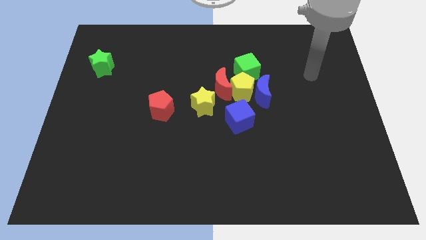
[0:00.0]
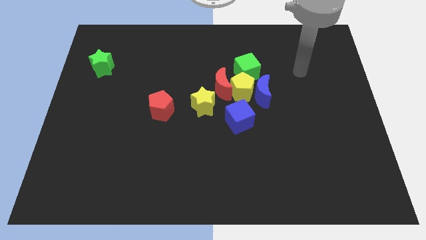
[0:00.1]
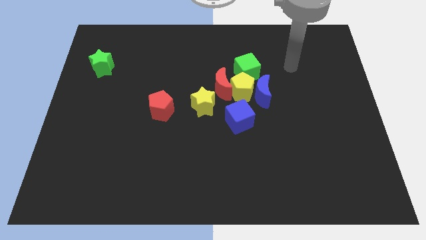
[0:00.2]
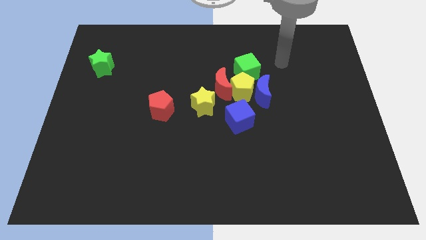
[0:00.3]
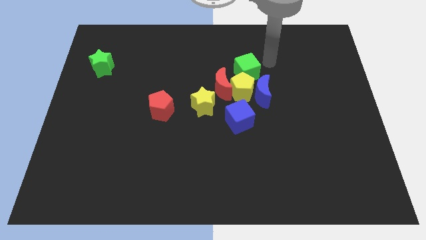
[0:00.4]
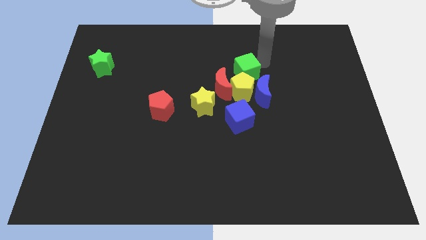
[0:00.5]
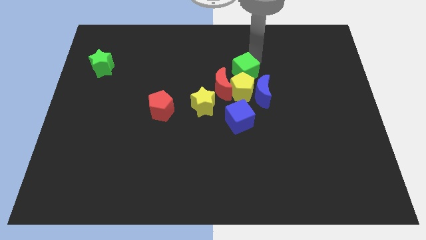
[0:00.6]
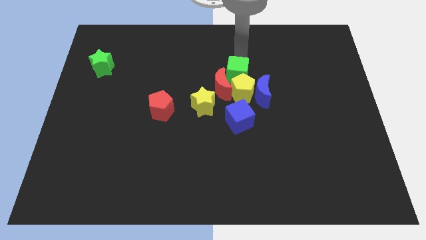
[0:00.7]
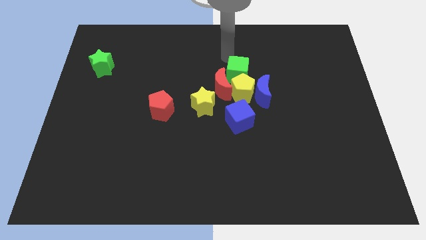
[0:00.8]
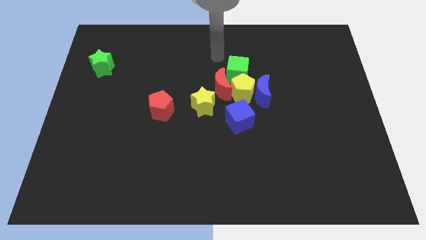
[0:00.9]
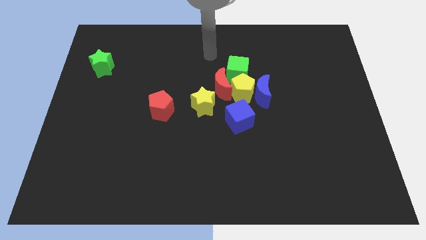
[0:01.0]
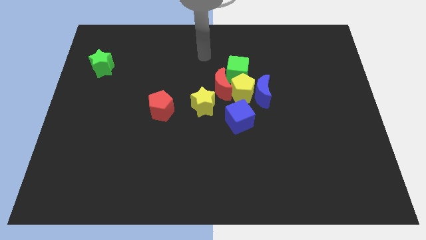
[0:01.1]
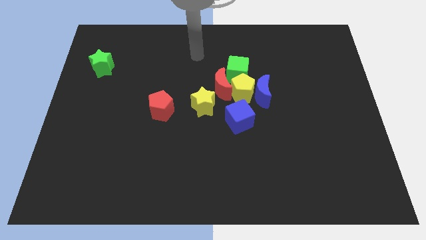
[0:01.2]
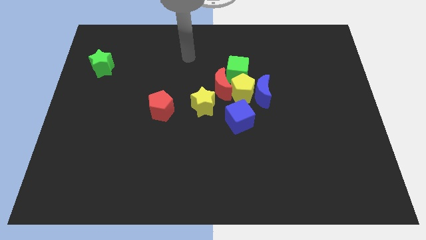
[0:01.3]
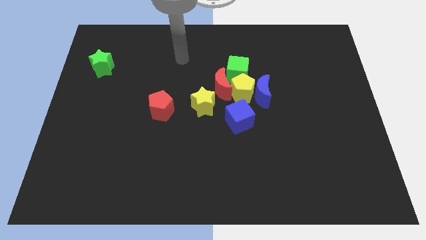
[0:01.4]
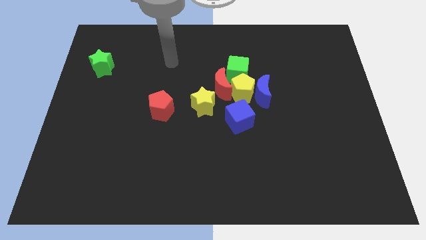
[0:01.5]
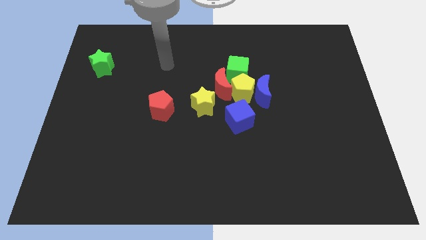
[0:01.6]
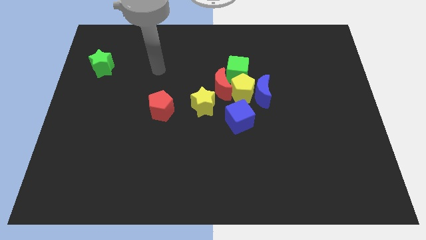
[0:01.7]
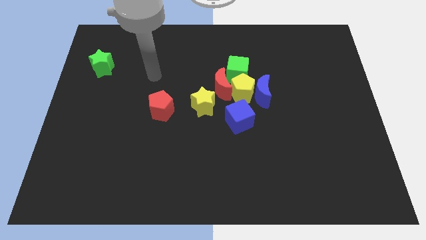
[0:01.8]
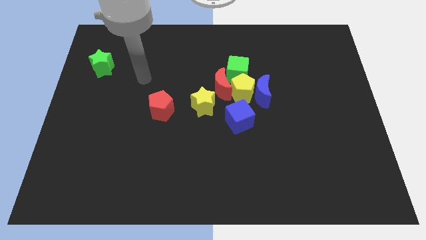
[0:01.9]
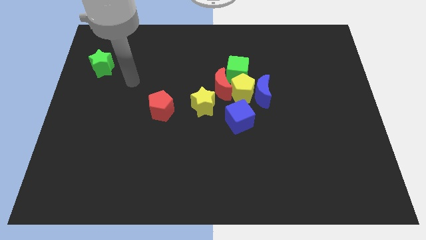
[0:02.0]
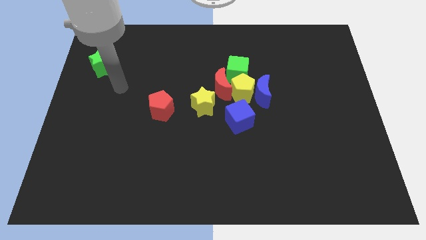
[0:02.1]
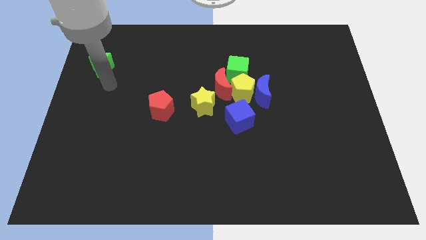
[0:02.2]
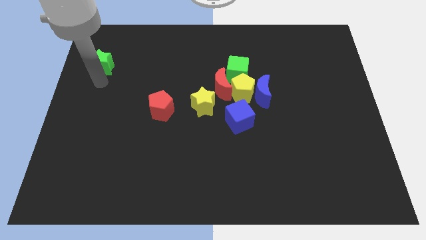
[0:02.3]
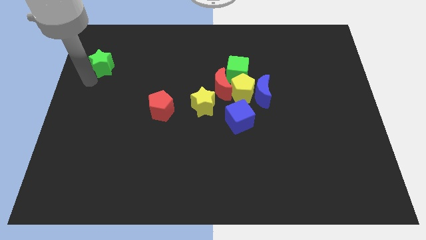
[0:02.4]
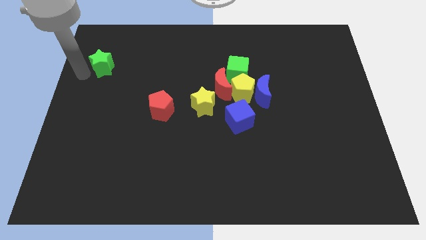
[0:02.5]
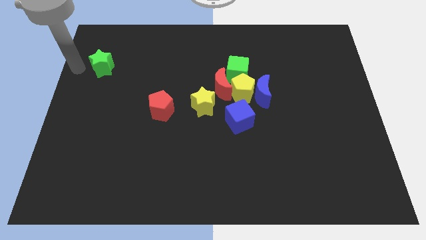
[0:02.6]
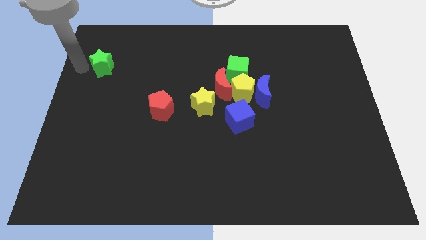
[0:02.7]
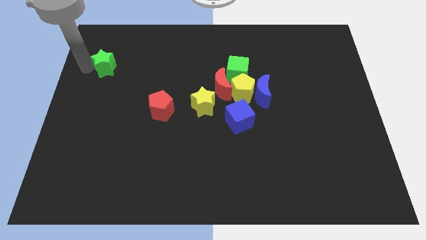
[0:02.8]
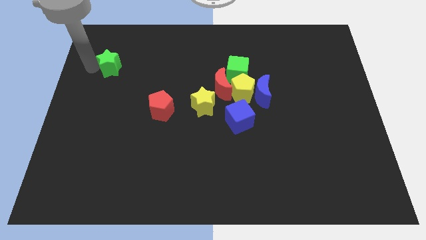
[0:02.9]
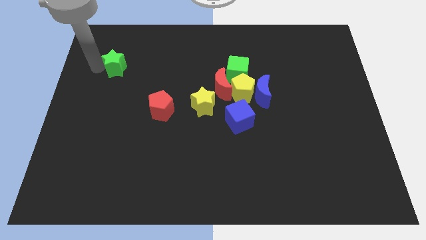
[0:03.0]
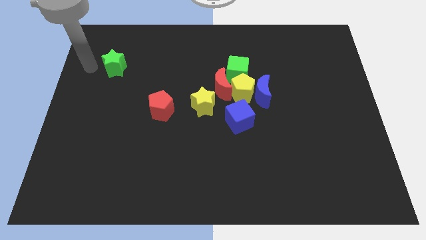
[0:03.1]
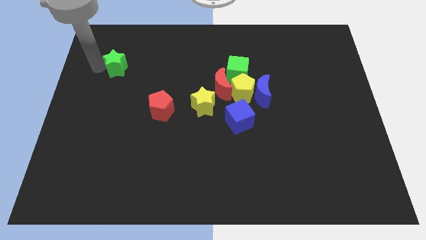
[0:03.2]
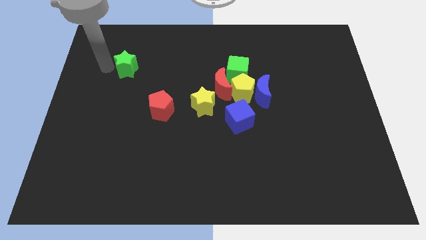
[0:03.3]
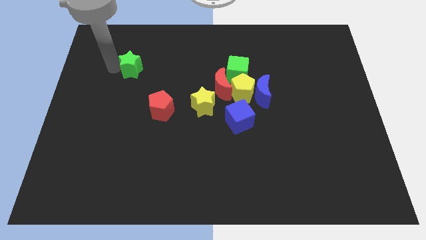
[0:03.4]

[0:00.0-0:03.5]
push the green star to the right a little

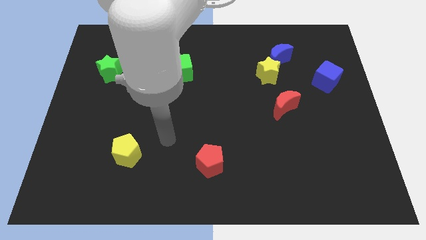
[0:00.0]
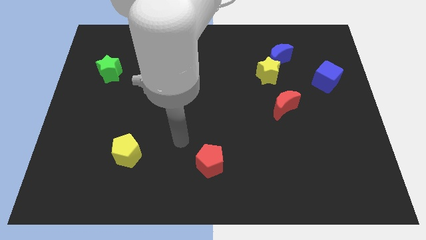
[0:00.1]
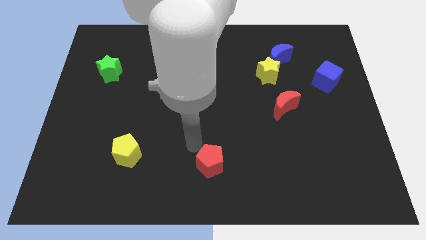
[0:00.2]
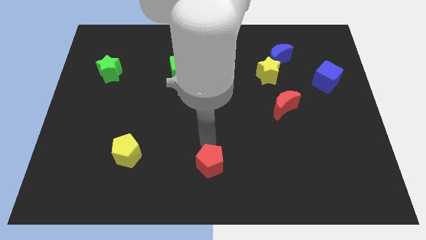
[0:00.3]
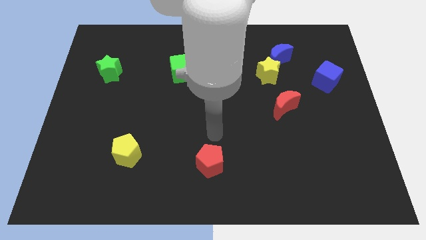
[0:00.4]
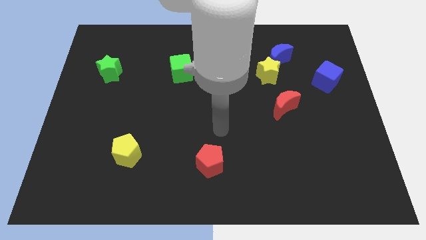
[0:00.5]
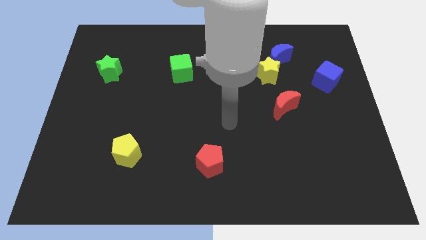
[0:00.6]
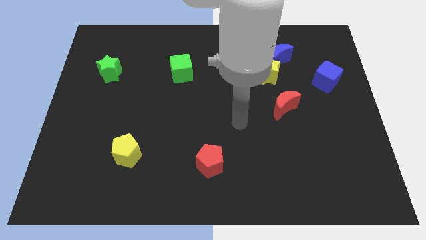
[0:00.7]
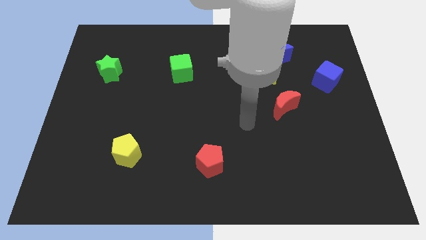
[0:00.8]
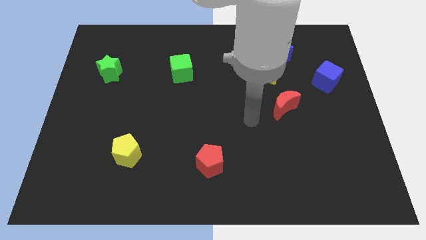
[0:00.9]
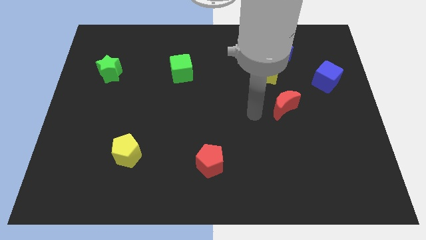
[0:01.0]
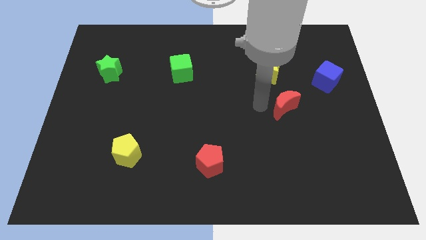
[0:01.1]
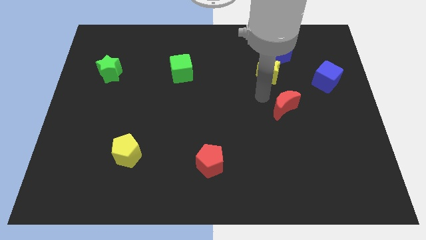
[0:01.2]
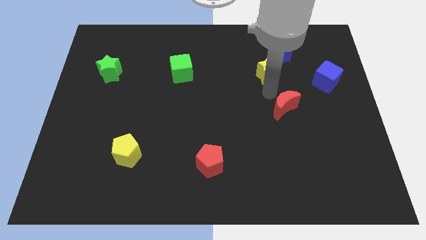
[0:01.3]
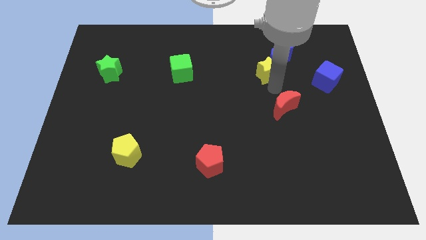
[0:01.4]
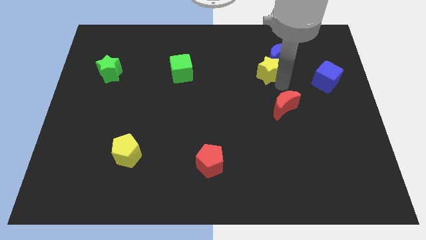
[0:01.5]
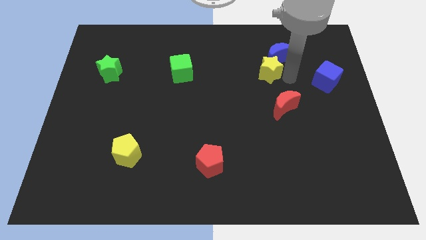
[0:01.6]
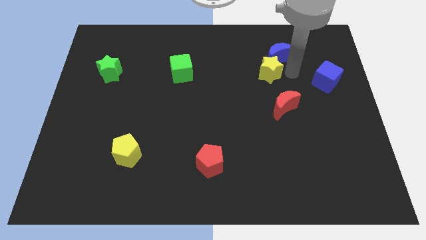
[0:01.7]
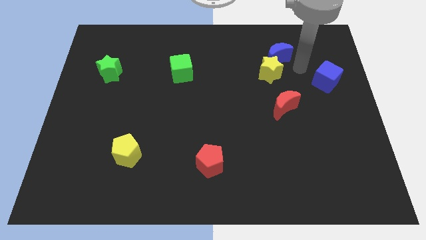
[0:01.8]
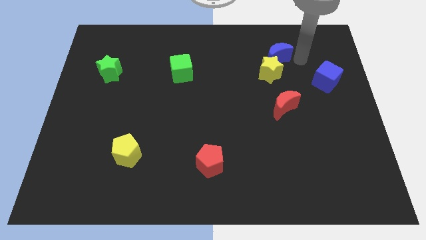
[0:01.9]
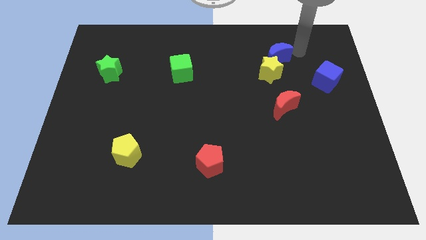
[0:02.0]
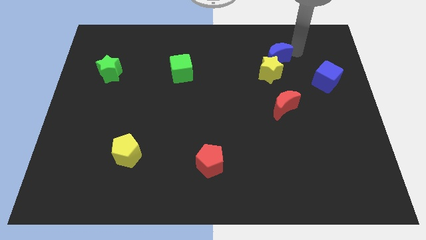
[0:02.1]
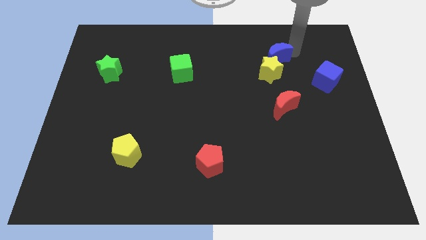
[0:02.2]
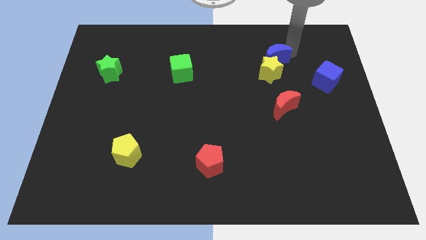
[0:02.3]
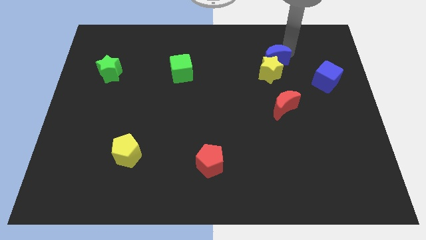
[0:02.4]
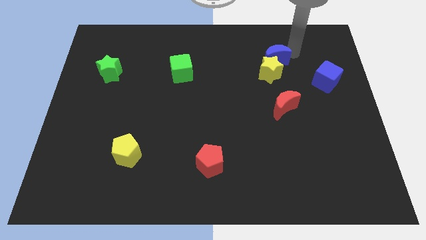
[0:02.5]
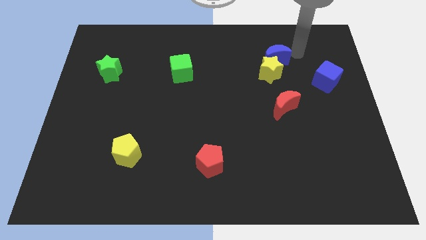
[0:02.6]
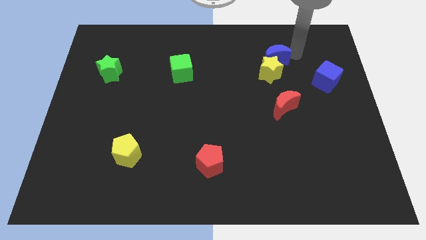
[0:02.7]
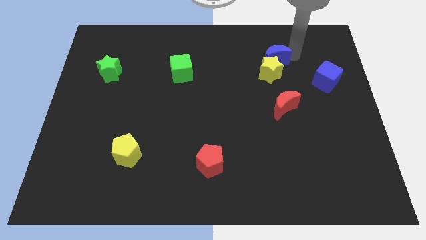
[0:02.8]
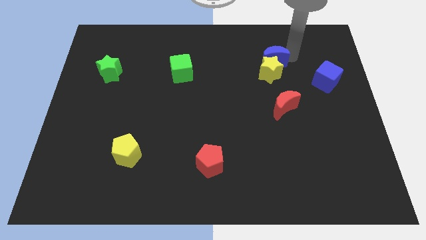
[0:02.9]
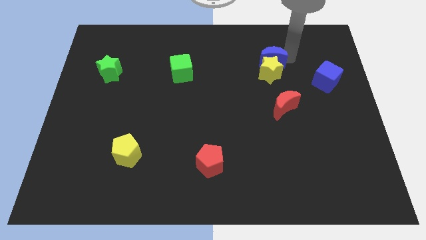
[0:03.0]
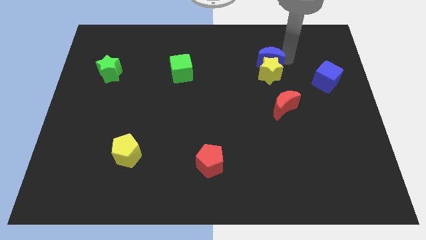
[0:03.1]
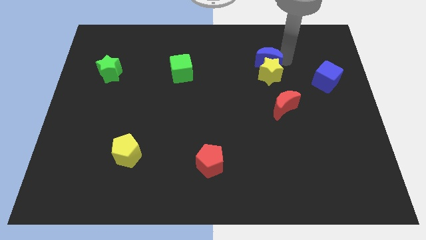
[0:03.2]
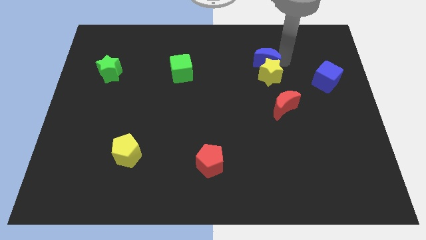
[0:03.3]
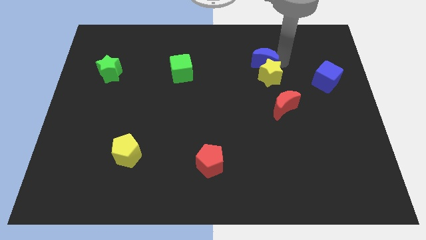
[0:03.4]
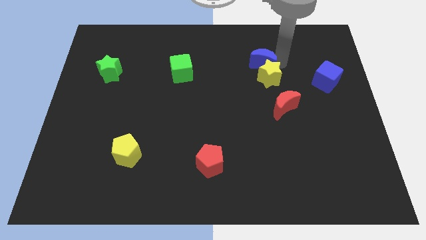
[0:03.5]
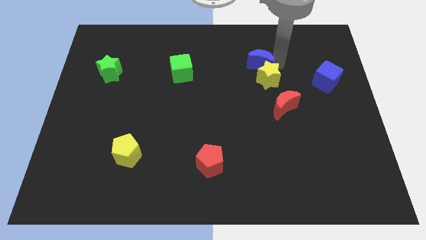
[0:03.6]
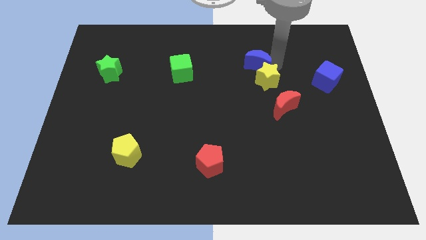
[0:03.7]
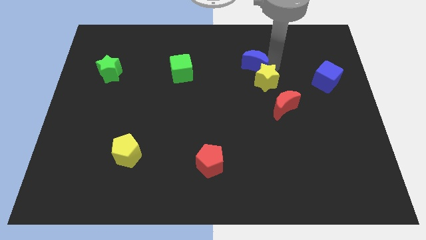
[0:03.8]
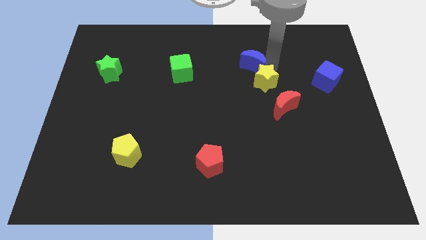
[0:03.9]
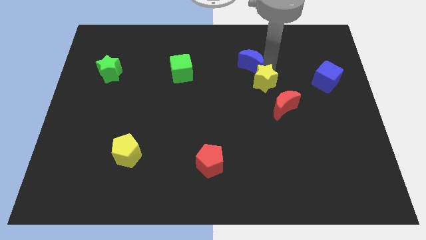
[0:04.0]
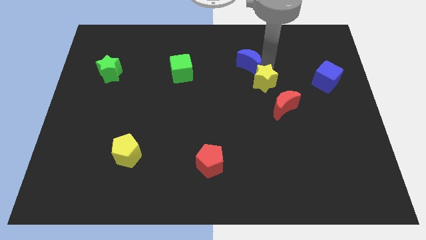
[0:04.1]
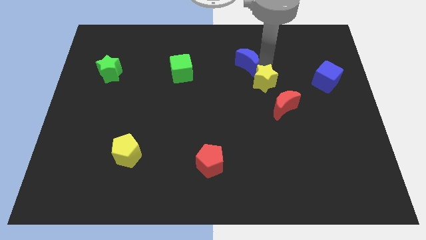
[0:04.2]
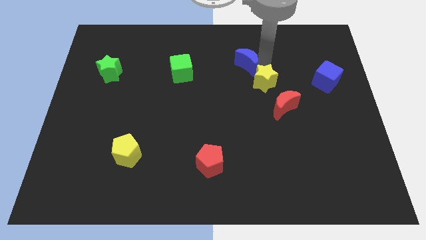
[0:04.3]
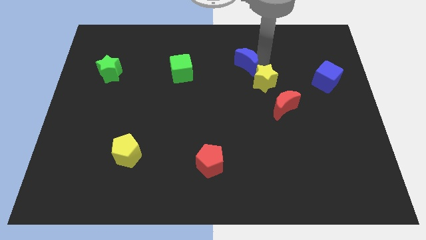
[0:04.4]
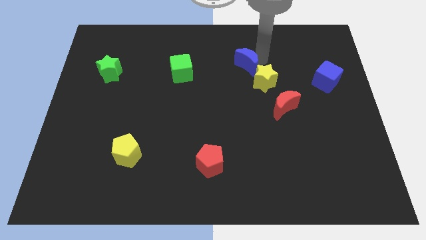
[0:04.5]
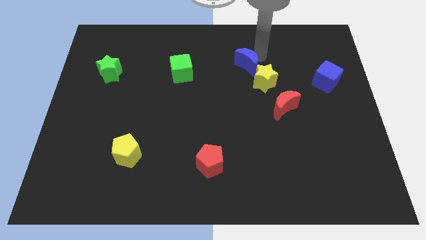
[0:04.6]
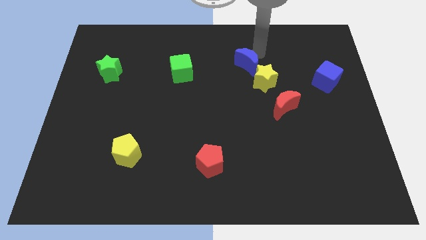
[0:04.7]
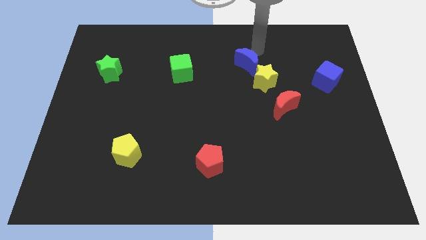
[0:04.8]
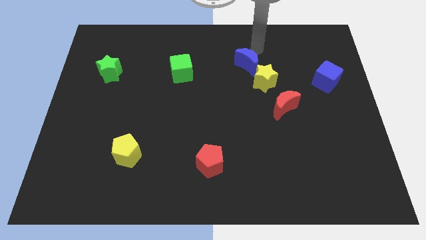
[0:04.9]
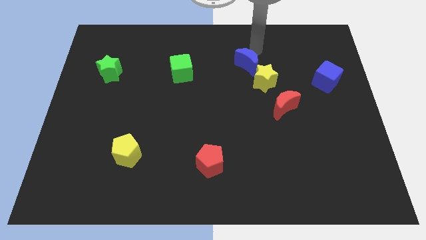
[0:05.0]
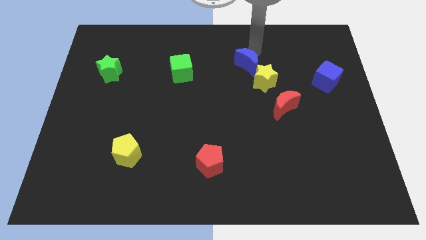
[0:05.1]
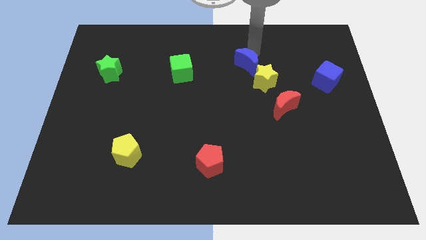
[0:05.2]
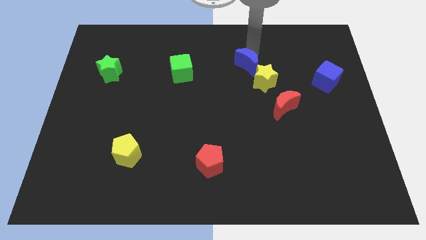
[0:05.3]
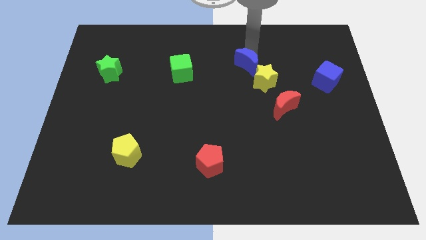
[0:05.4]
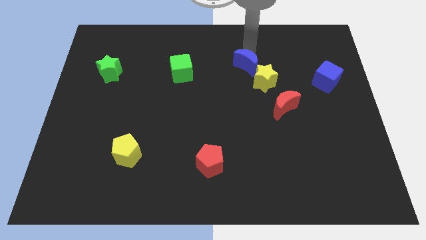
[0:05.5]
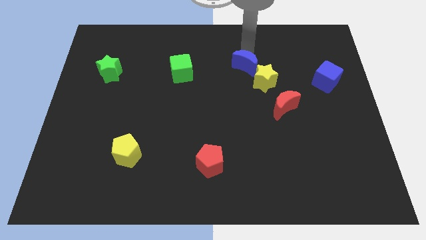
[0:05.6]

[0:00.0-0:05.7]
slide the blue moon somewhat down and to the left
